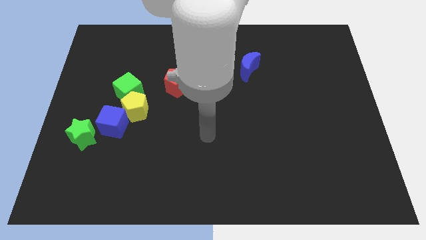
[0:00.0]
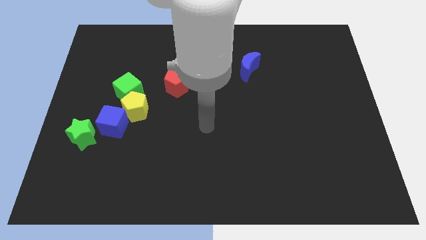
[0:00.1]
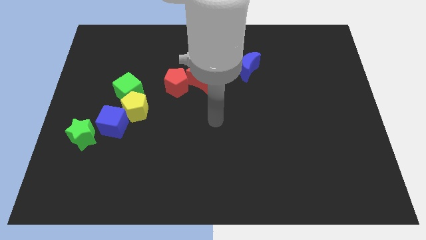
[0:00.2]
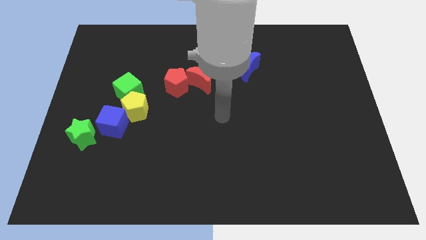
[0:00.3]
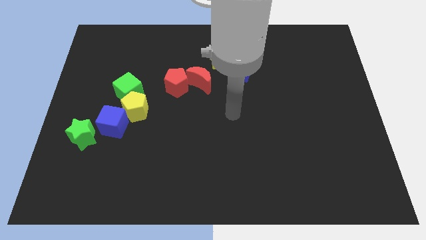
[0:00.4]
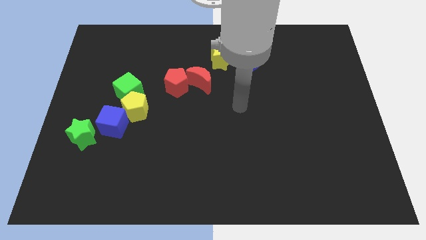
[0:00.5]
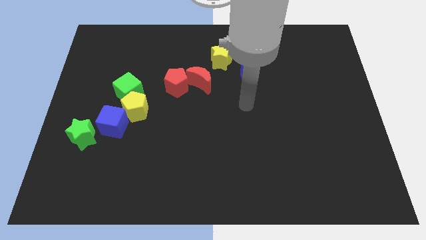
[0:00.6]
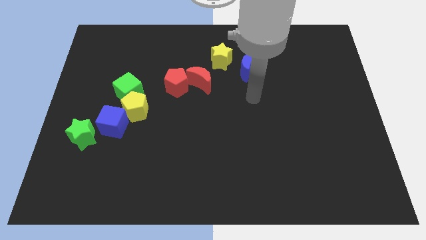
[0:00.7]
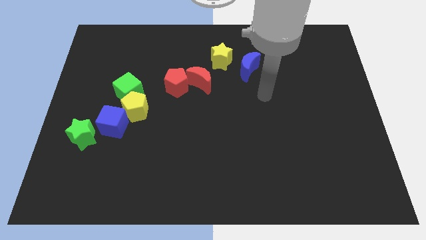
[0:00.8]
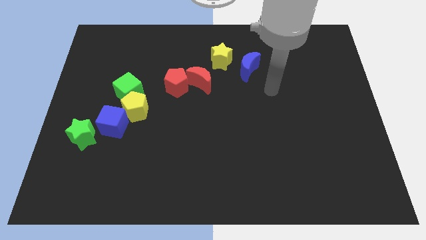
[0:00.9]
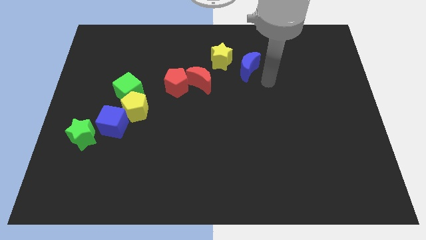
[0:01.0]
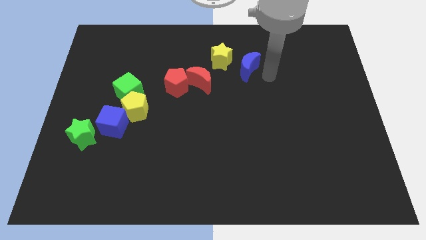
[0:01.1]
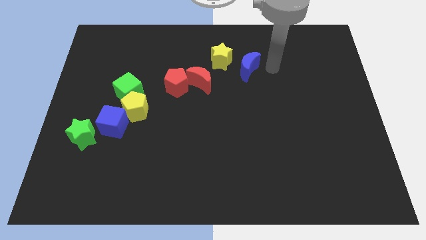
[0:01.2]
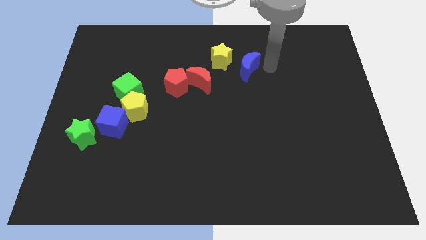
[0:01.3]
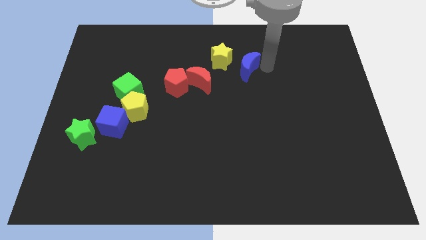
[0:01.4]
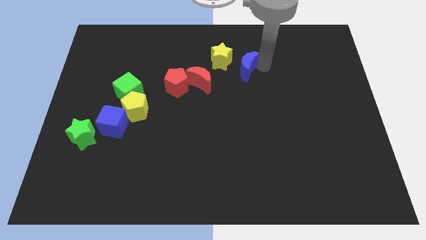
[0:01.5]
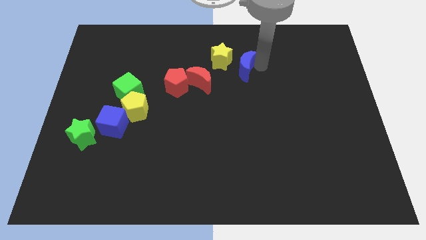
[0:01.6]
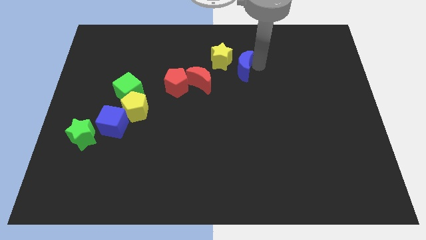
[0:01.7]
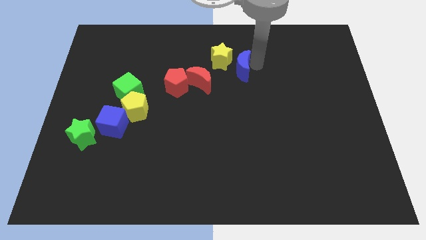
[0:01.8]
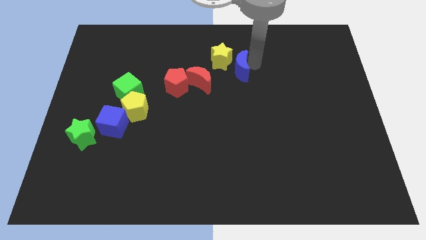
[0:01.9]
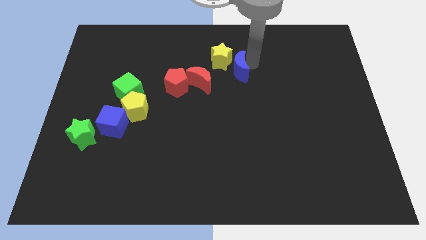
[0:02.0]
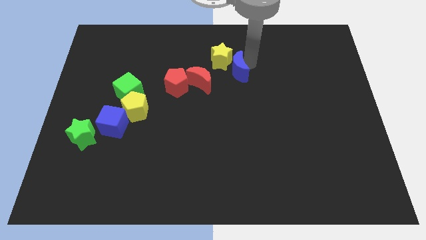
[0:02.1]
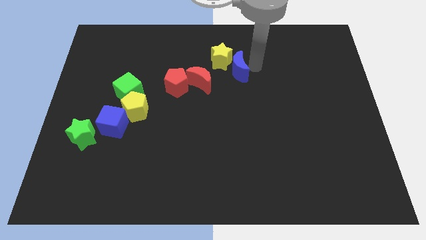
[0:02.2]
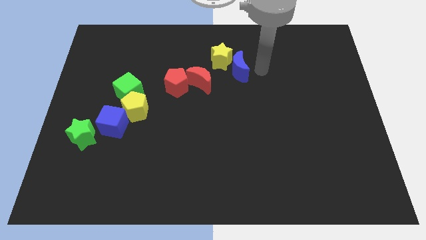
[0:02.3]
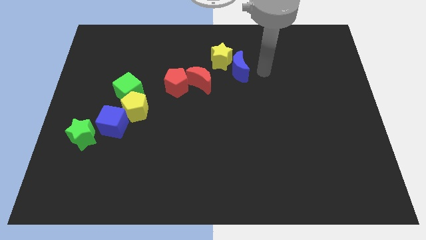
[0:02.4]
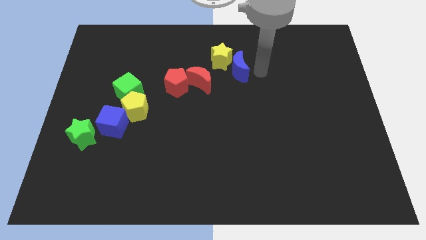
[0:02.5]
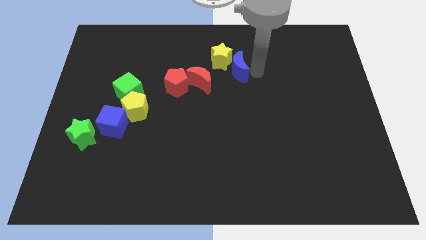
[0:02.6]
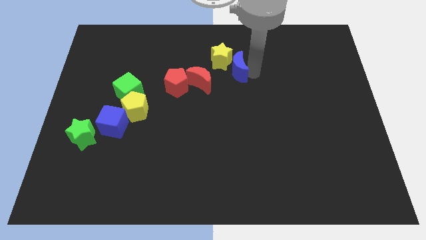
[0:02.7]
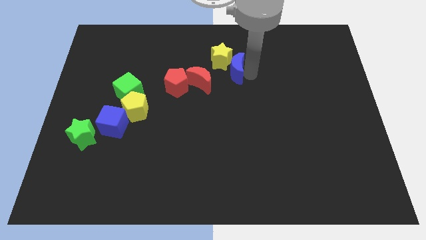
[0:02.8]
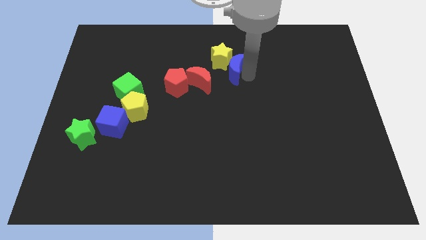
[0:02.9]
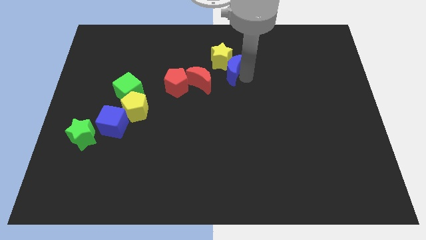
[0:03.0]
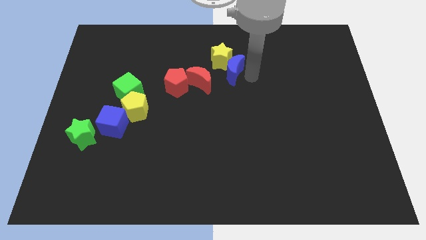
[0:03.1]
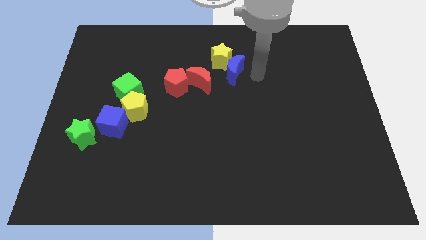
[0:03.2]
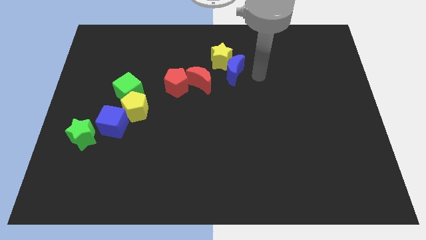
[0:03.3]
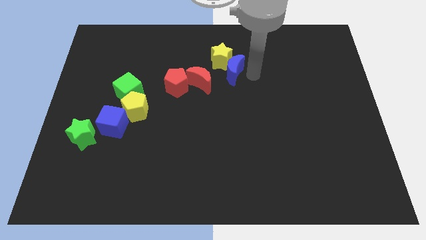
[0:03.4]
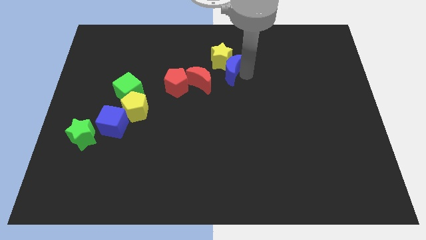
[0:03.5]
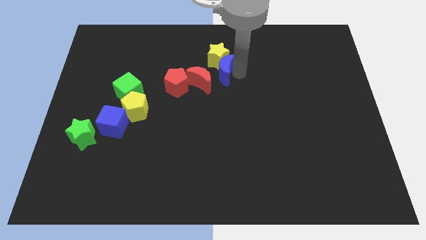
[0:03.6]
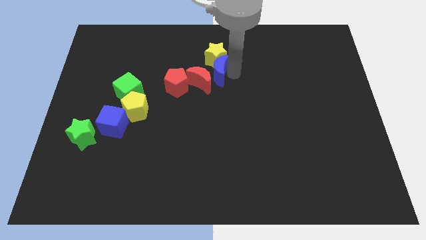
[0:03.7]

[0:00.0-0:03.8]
move the blue moon somewhat to the left

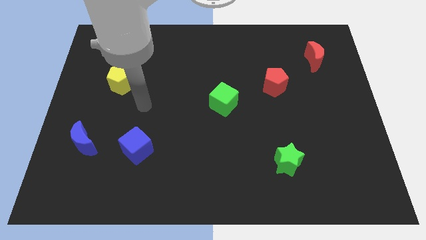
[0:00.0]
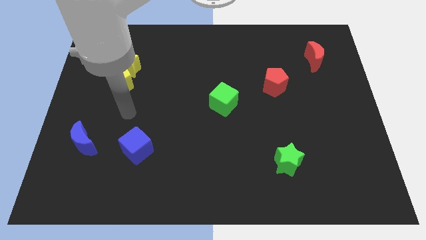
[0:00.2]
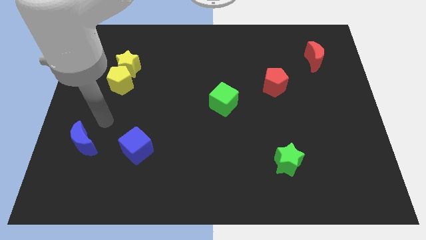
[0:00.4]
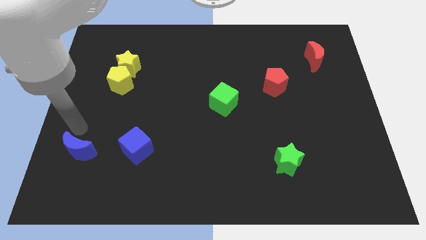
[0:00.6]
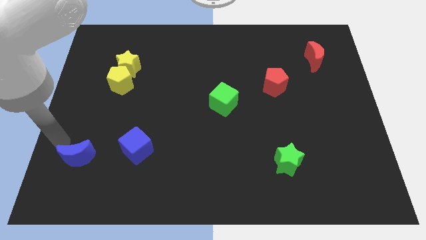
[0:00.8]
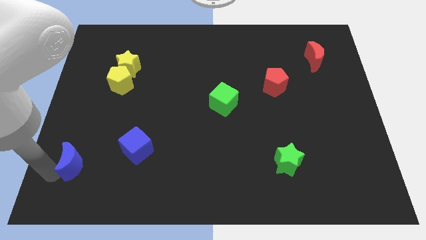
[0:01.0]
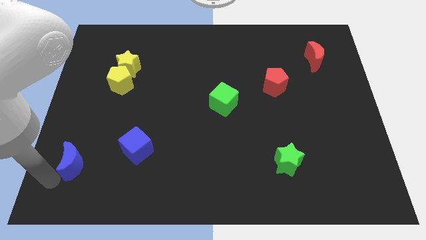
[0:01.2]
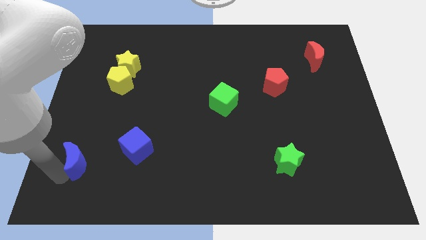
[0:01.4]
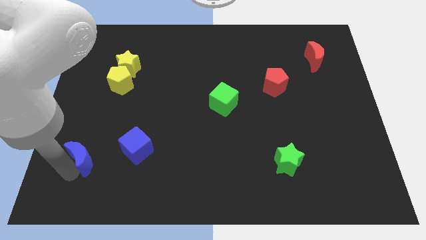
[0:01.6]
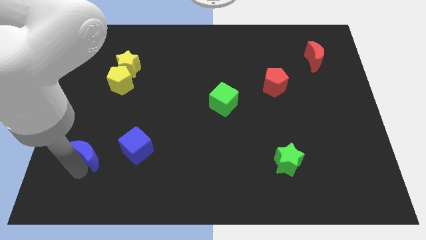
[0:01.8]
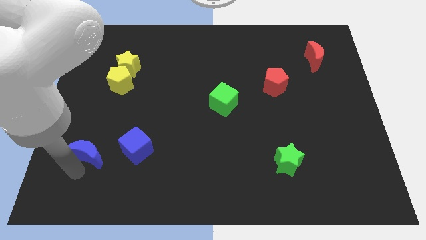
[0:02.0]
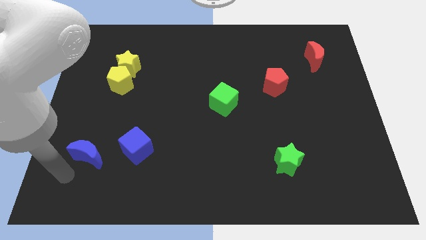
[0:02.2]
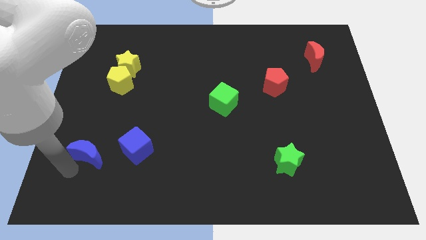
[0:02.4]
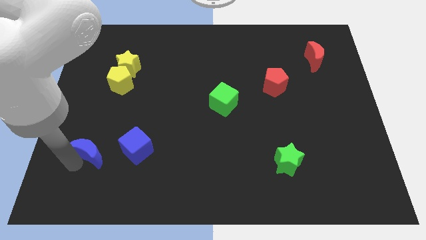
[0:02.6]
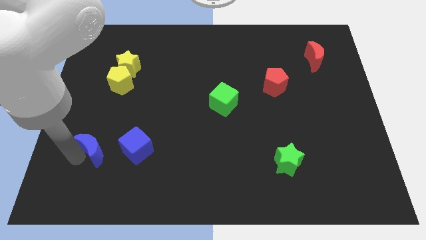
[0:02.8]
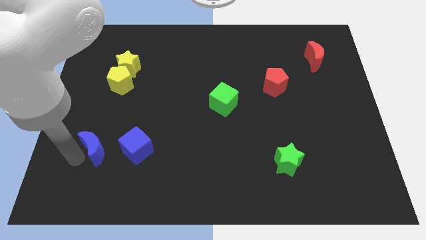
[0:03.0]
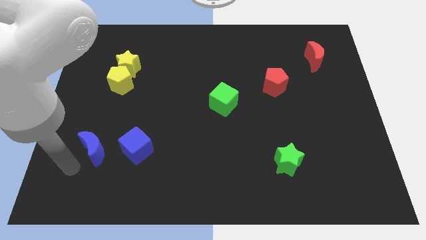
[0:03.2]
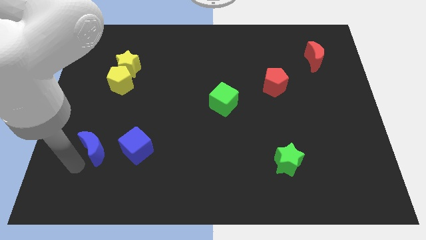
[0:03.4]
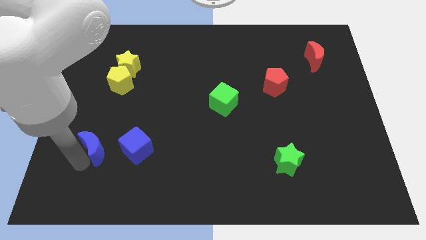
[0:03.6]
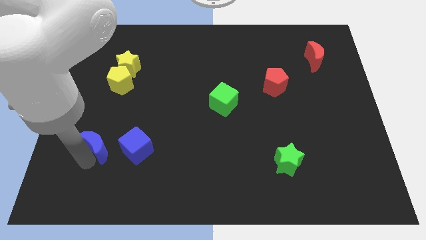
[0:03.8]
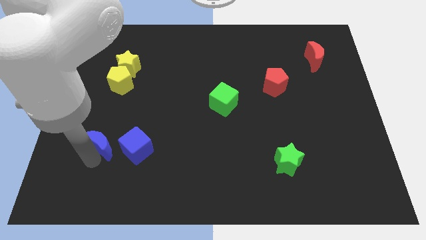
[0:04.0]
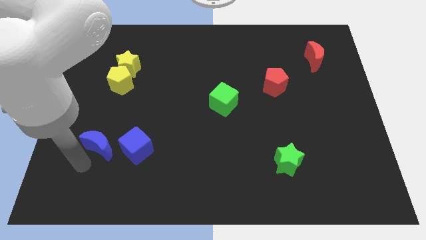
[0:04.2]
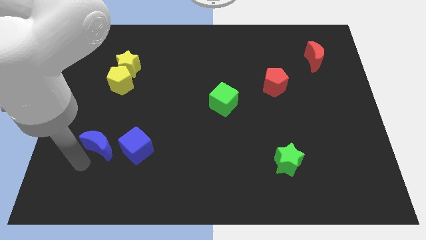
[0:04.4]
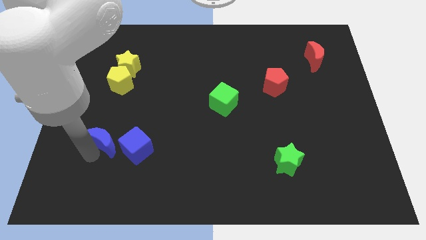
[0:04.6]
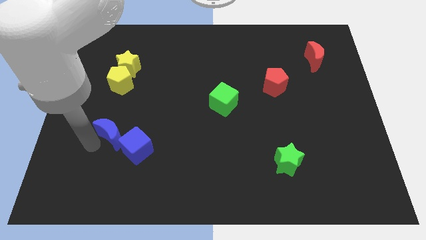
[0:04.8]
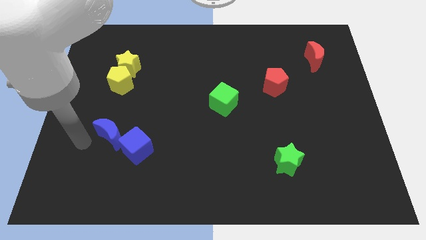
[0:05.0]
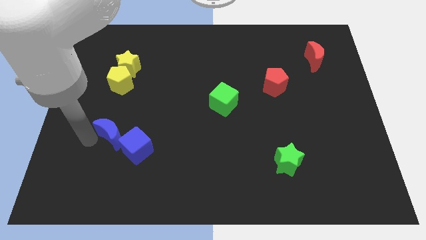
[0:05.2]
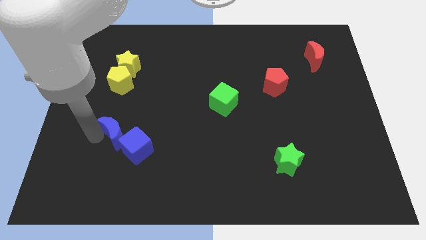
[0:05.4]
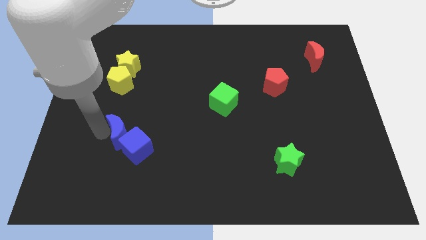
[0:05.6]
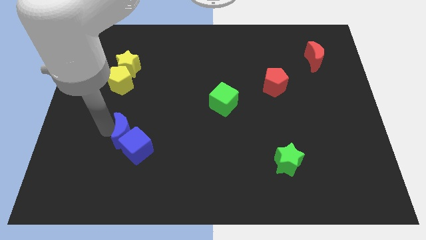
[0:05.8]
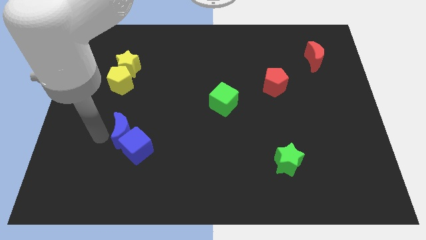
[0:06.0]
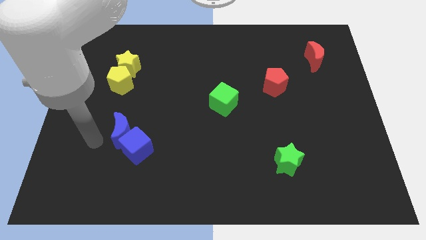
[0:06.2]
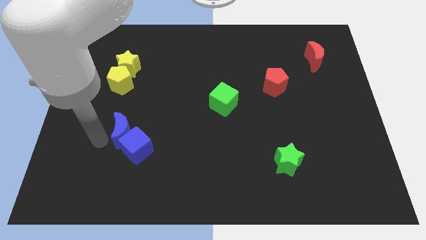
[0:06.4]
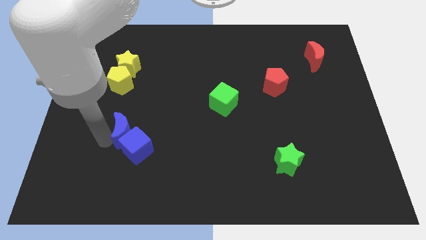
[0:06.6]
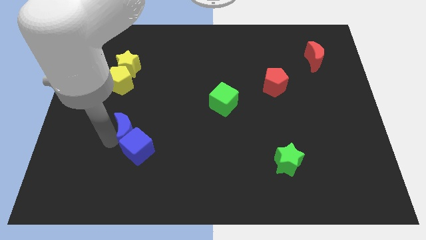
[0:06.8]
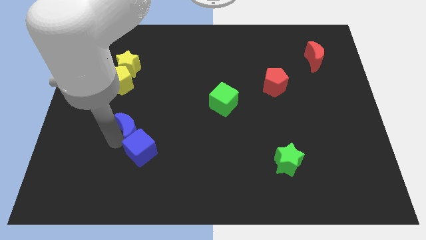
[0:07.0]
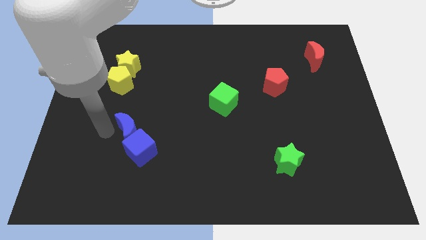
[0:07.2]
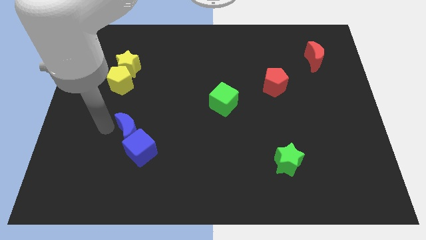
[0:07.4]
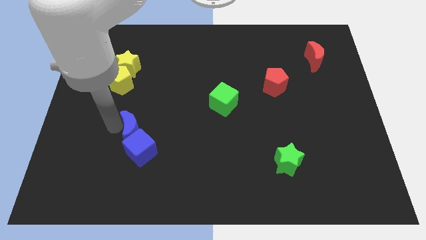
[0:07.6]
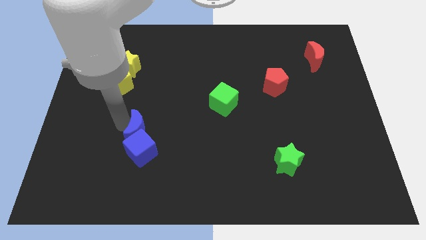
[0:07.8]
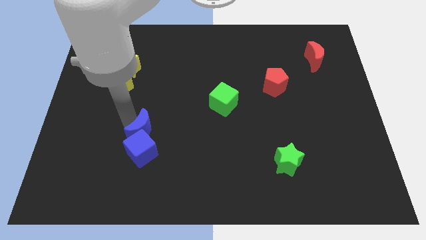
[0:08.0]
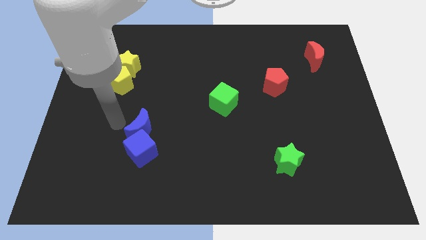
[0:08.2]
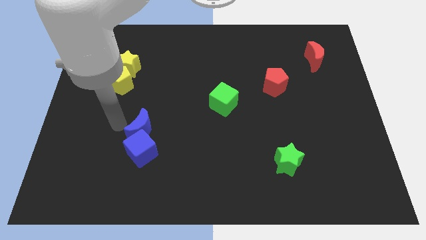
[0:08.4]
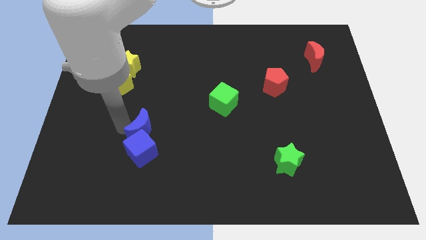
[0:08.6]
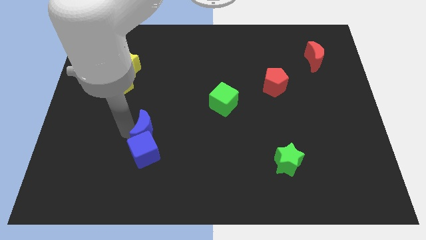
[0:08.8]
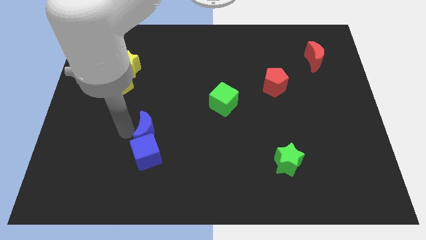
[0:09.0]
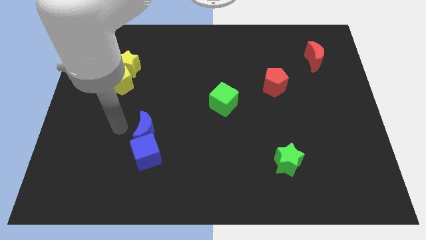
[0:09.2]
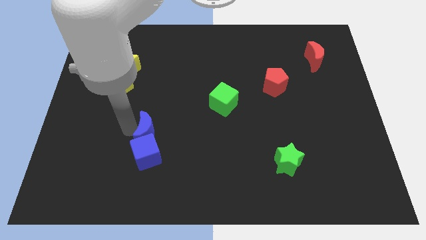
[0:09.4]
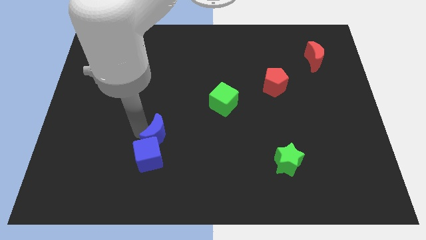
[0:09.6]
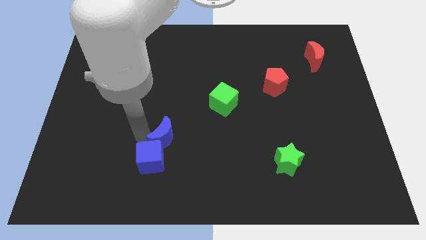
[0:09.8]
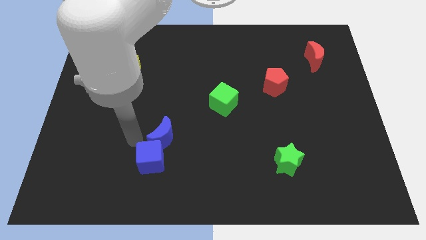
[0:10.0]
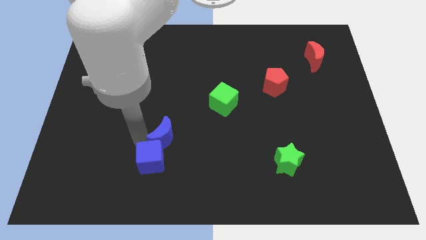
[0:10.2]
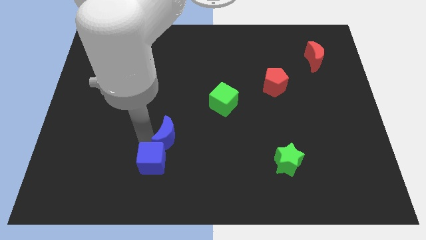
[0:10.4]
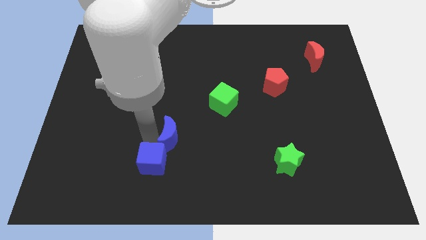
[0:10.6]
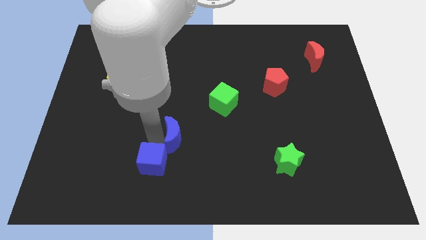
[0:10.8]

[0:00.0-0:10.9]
slide the blue moon right
